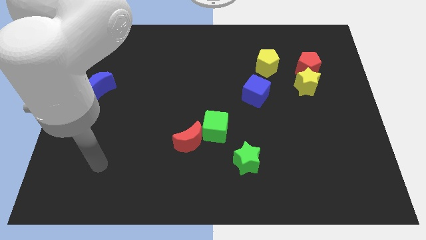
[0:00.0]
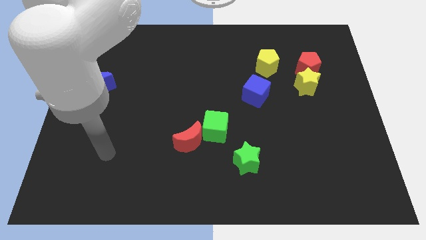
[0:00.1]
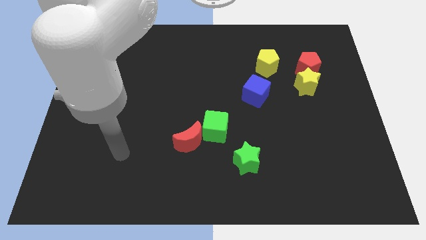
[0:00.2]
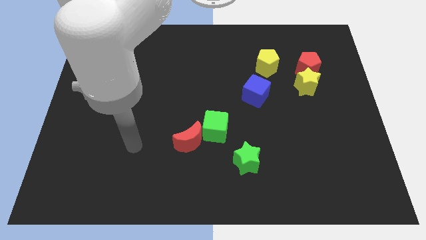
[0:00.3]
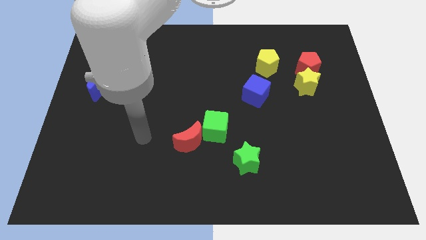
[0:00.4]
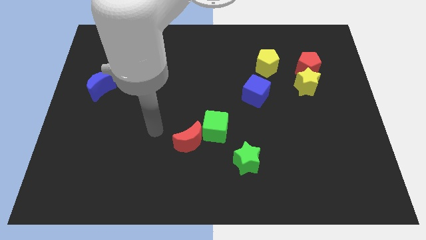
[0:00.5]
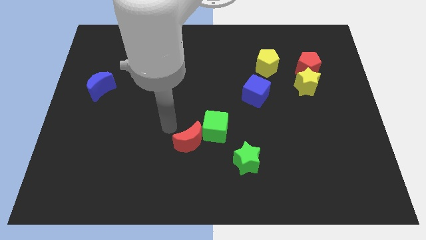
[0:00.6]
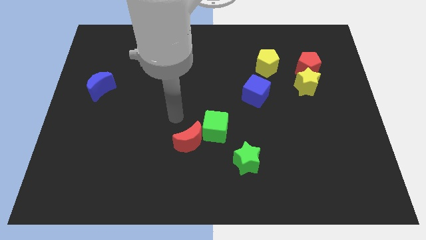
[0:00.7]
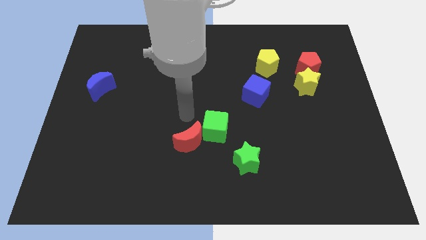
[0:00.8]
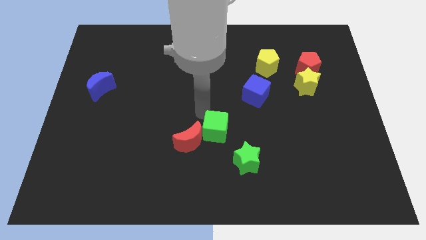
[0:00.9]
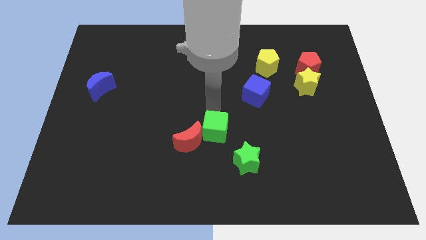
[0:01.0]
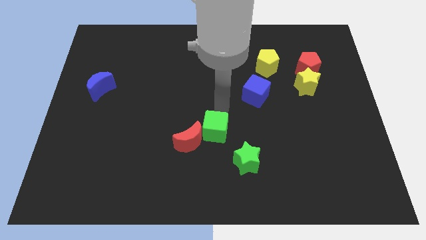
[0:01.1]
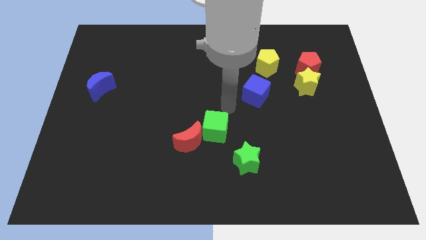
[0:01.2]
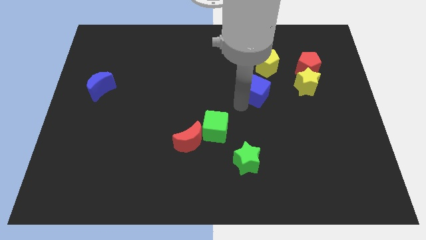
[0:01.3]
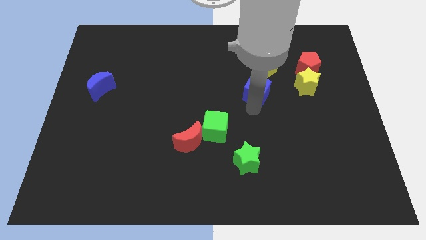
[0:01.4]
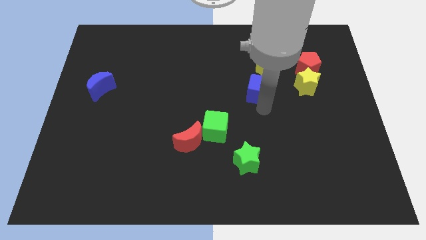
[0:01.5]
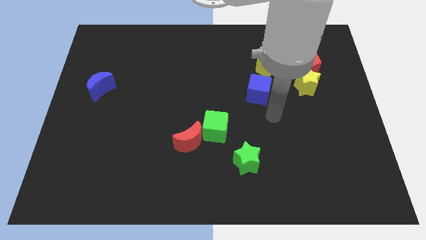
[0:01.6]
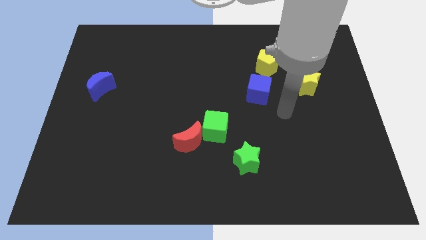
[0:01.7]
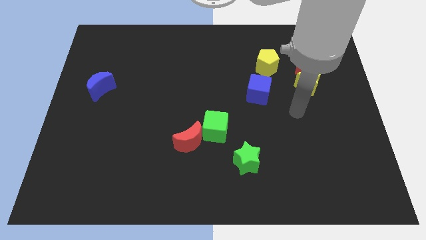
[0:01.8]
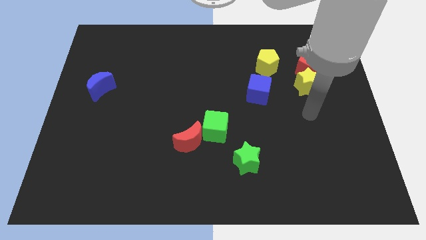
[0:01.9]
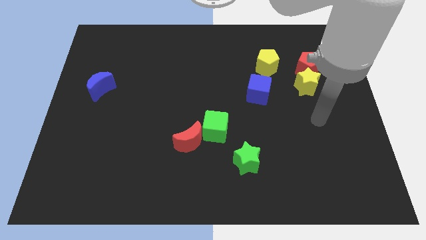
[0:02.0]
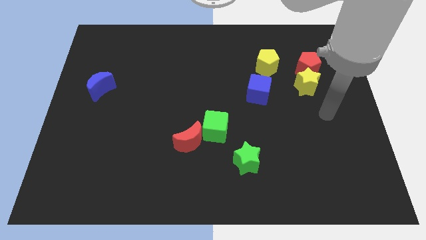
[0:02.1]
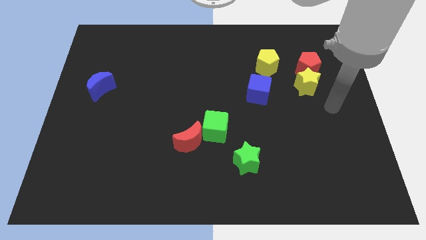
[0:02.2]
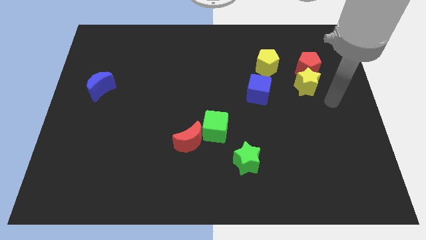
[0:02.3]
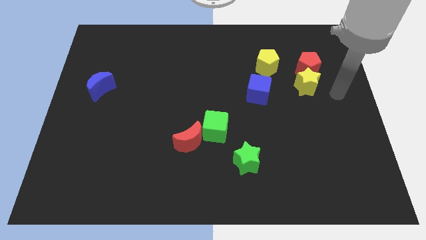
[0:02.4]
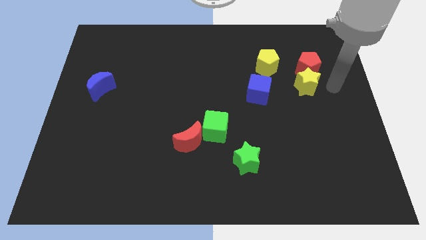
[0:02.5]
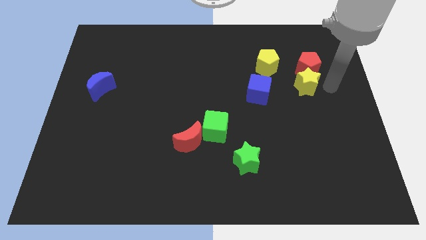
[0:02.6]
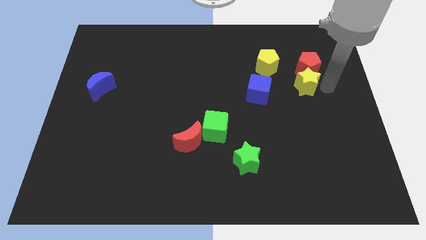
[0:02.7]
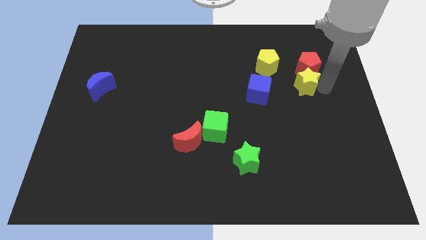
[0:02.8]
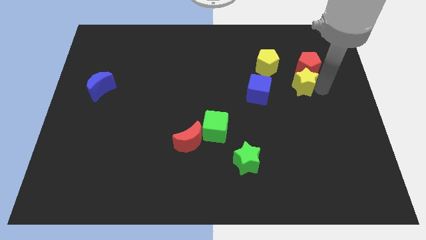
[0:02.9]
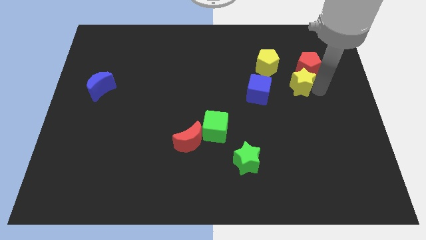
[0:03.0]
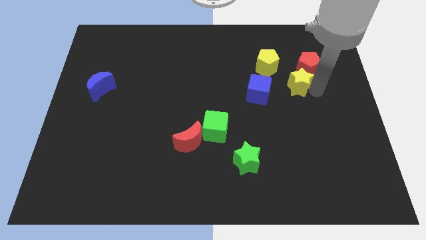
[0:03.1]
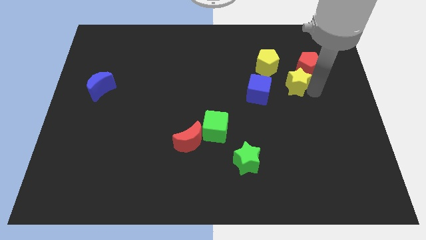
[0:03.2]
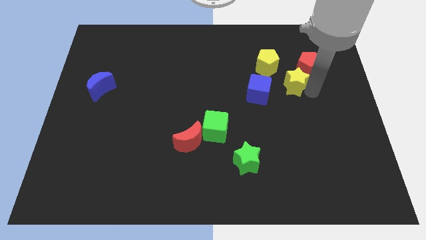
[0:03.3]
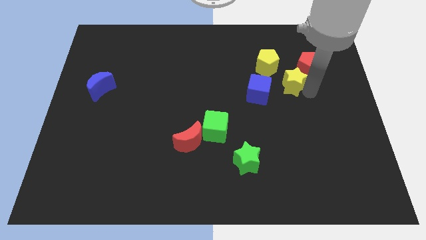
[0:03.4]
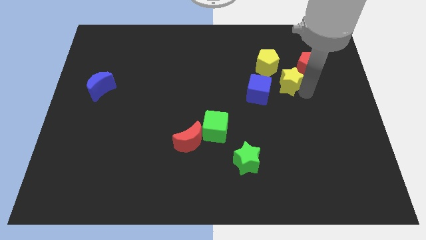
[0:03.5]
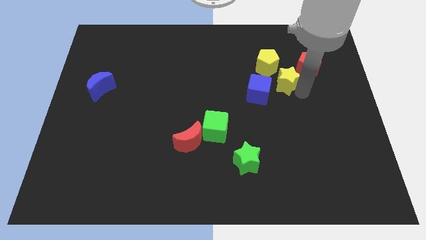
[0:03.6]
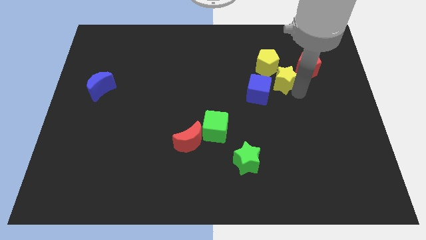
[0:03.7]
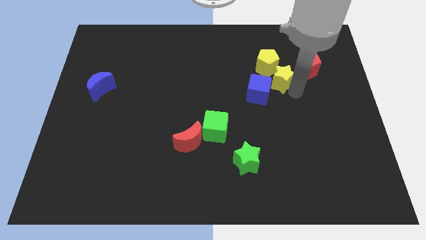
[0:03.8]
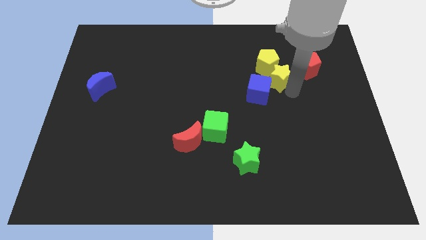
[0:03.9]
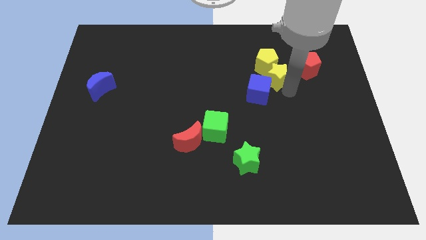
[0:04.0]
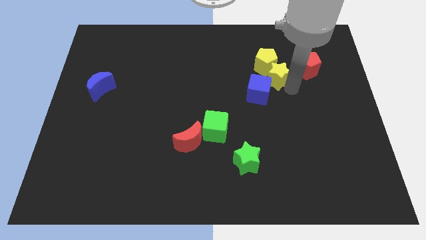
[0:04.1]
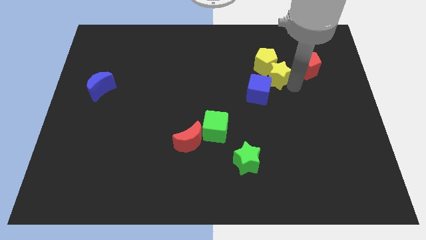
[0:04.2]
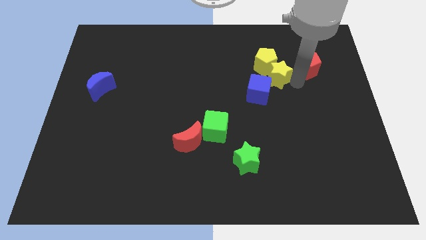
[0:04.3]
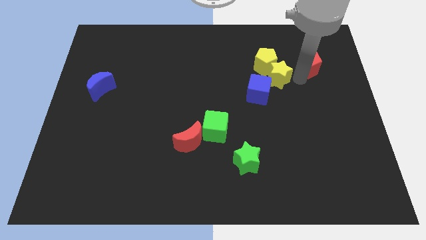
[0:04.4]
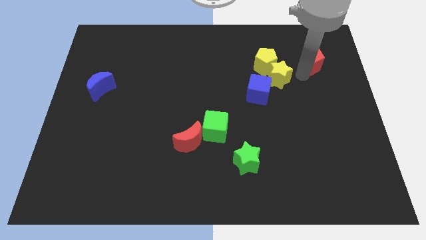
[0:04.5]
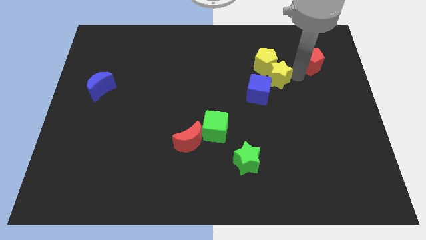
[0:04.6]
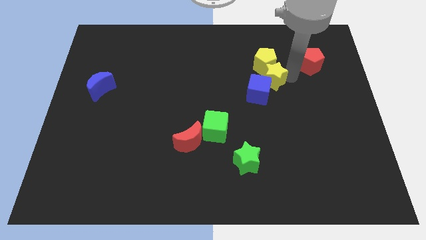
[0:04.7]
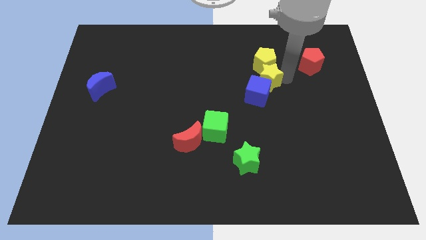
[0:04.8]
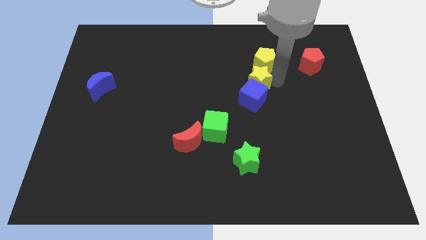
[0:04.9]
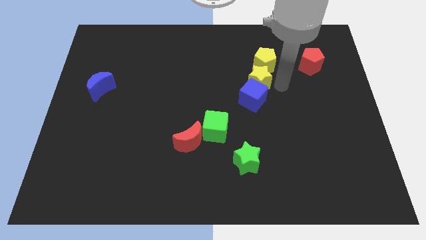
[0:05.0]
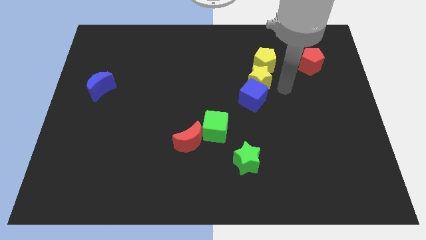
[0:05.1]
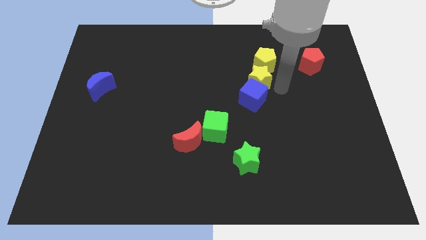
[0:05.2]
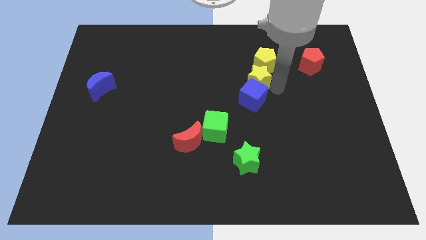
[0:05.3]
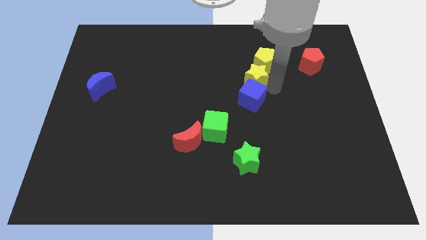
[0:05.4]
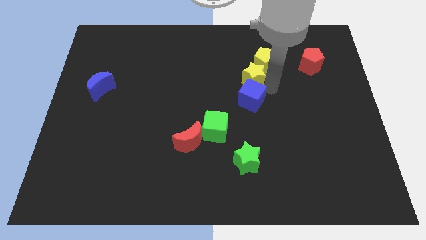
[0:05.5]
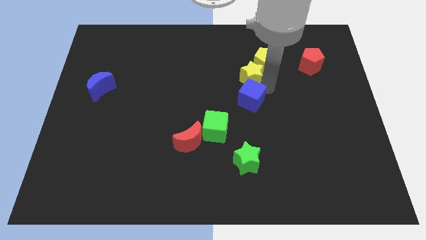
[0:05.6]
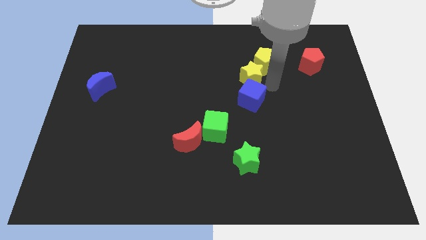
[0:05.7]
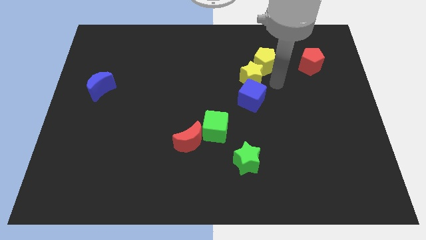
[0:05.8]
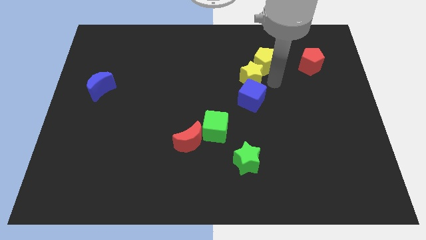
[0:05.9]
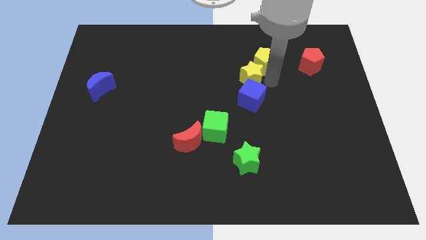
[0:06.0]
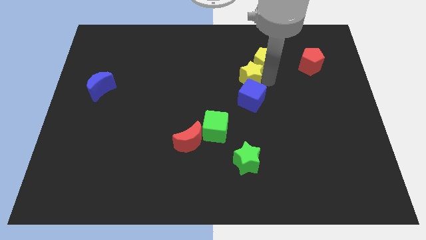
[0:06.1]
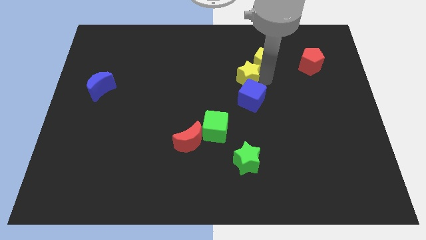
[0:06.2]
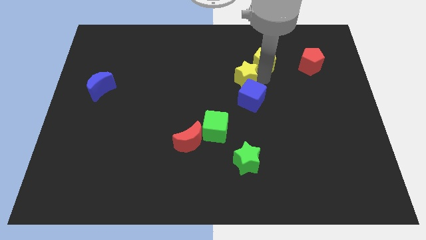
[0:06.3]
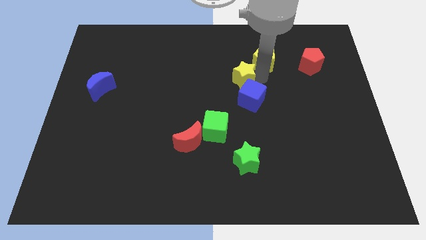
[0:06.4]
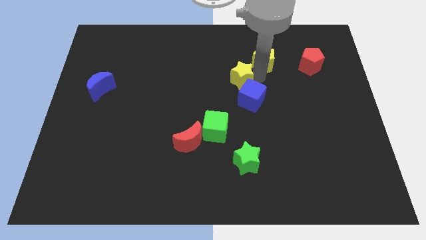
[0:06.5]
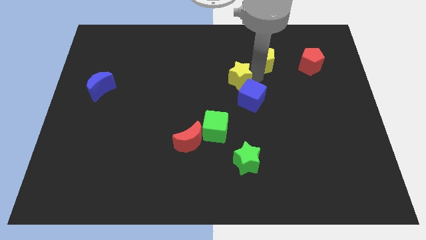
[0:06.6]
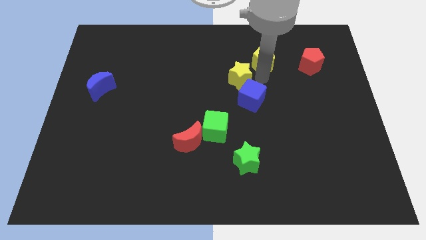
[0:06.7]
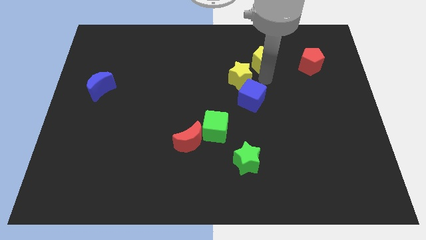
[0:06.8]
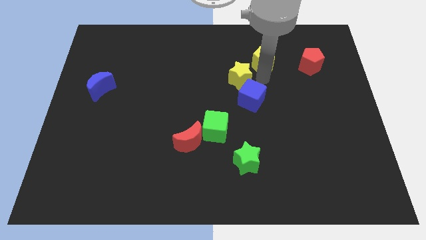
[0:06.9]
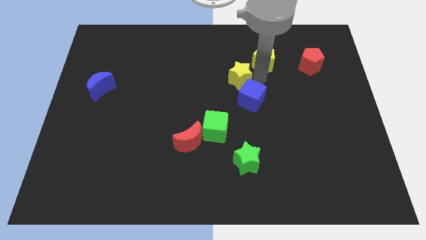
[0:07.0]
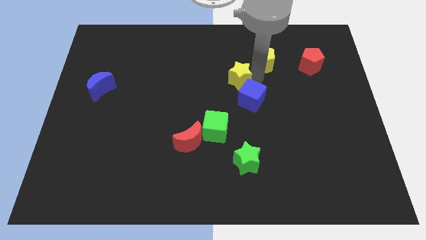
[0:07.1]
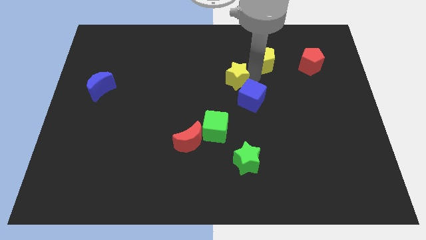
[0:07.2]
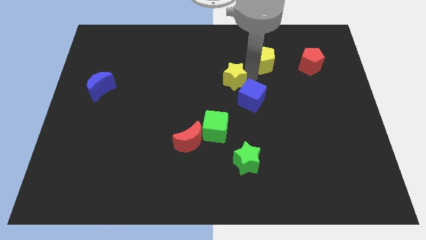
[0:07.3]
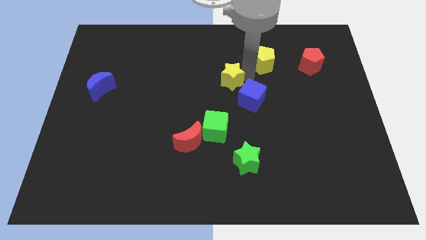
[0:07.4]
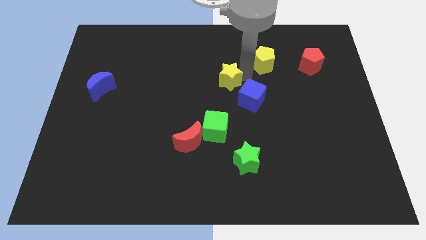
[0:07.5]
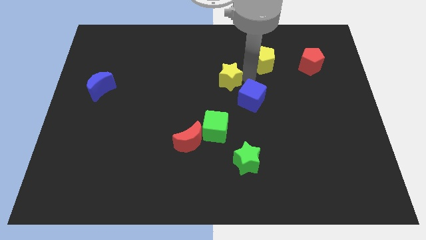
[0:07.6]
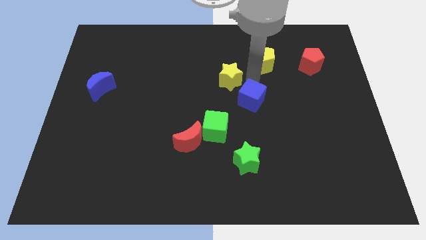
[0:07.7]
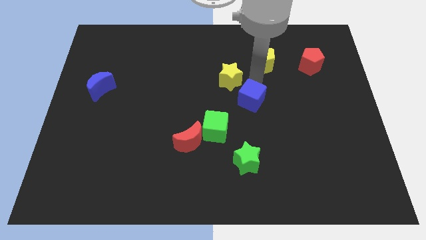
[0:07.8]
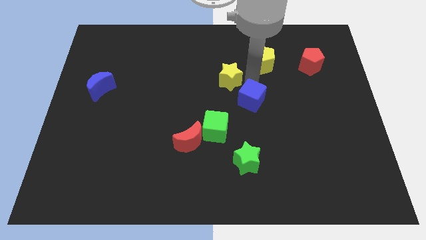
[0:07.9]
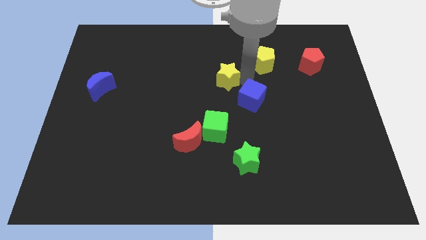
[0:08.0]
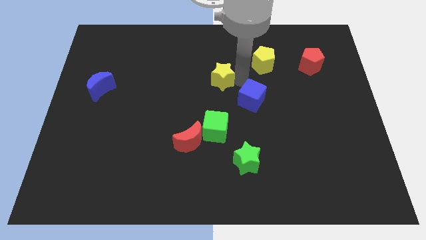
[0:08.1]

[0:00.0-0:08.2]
slide the yellow star left

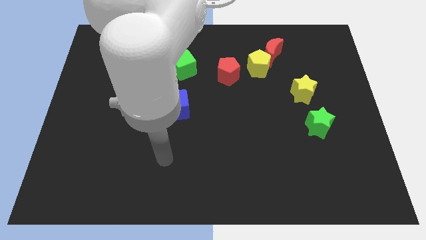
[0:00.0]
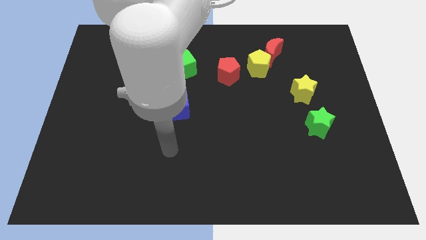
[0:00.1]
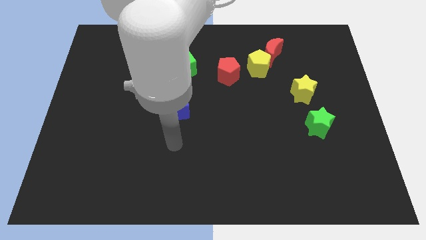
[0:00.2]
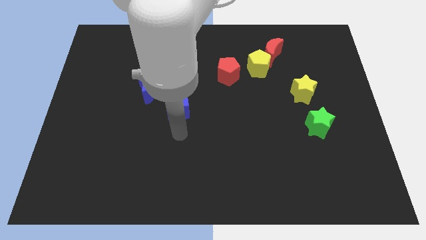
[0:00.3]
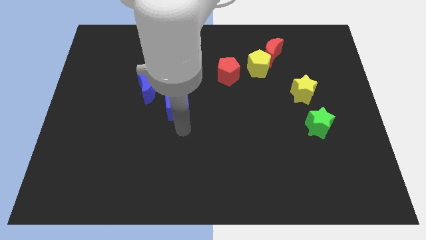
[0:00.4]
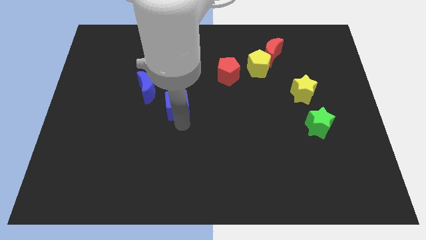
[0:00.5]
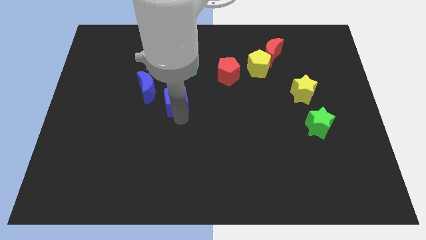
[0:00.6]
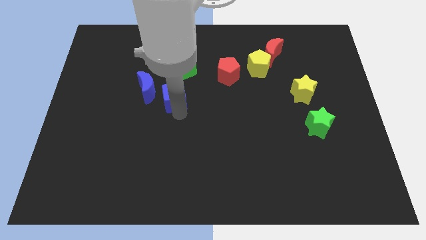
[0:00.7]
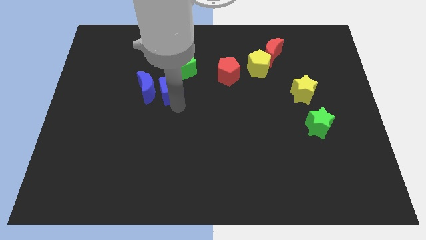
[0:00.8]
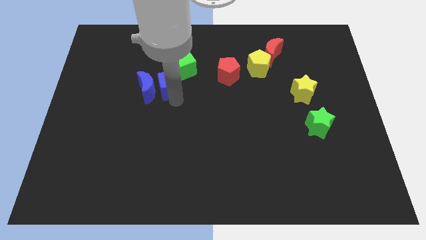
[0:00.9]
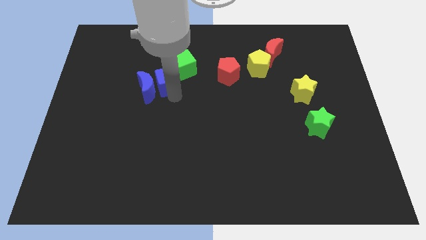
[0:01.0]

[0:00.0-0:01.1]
push the blue cube a bit up and then left
